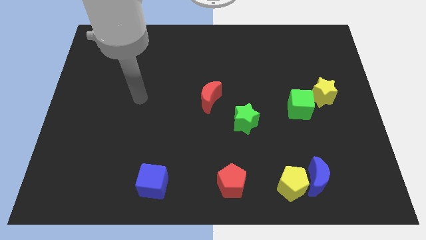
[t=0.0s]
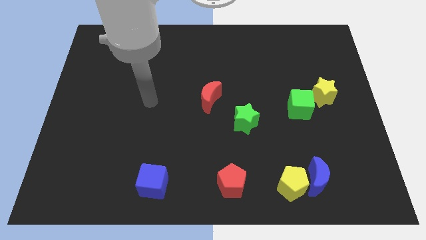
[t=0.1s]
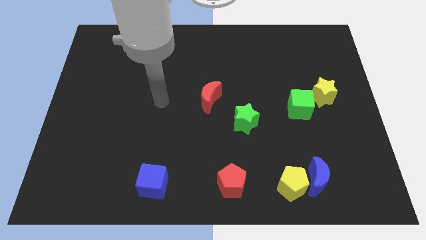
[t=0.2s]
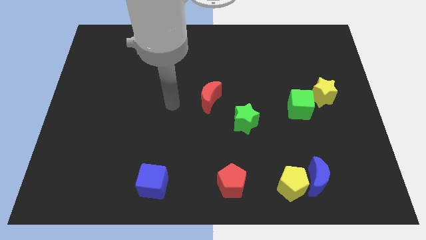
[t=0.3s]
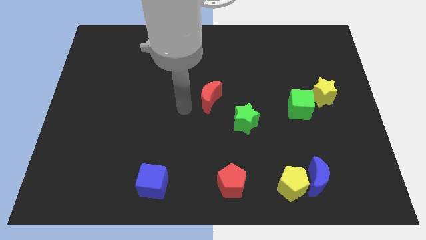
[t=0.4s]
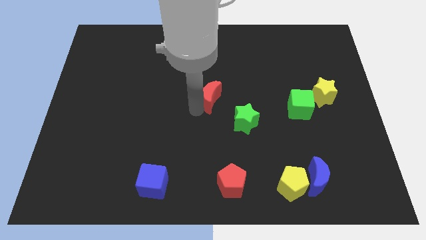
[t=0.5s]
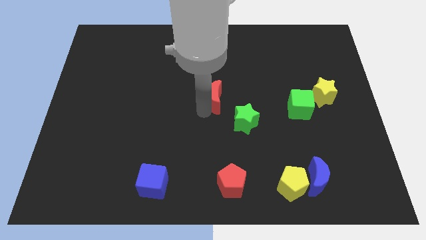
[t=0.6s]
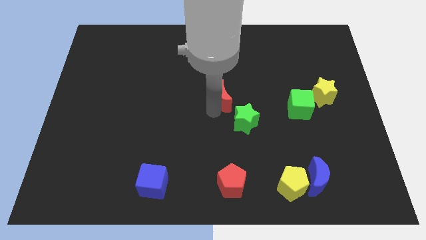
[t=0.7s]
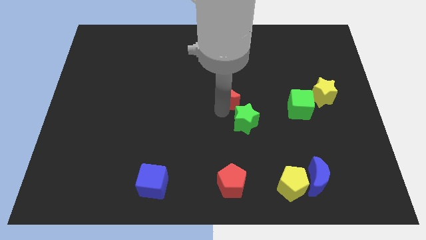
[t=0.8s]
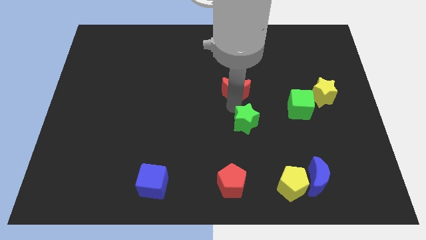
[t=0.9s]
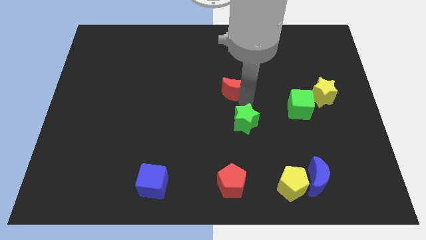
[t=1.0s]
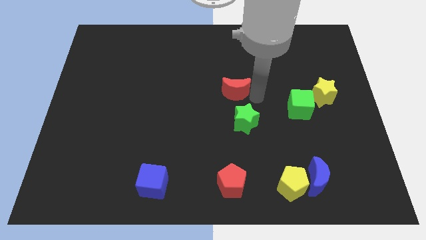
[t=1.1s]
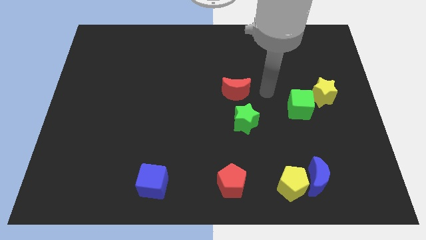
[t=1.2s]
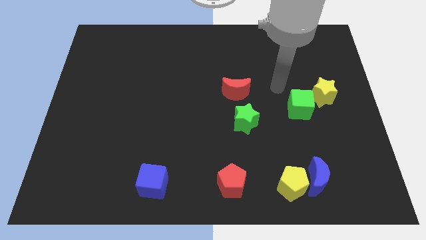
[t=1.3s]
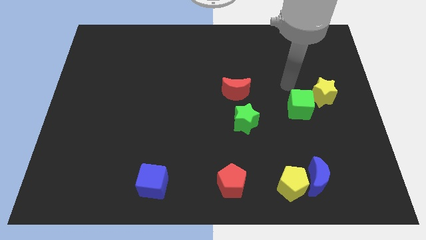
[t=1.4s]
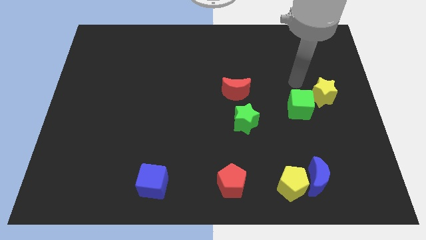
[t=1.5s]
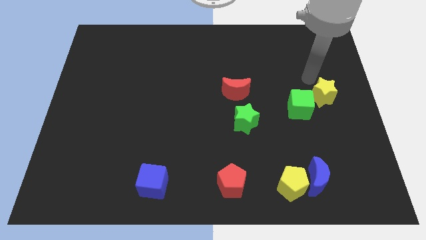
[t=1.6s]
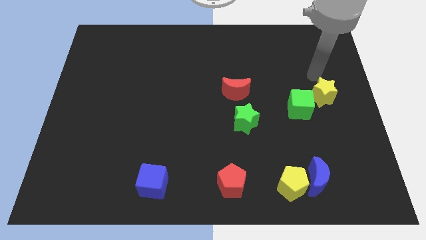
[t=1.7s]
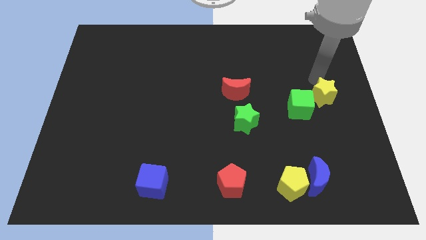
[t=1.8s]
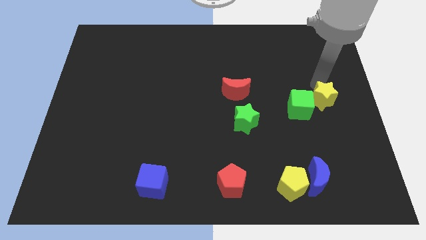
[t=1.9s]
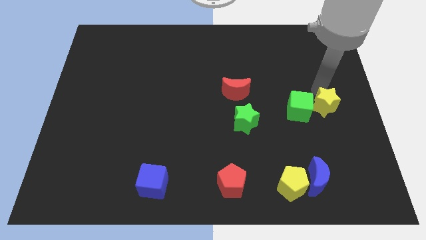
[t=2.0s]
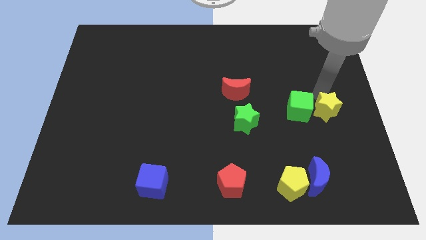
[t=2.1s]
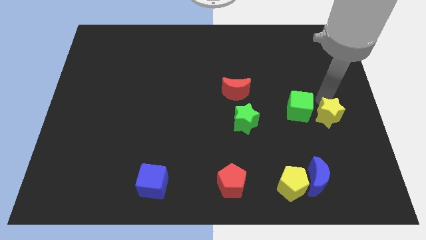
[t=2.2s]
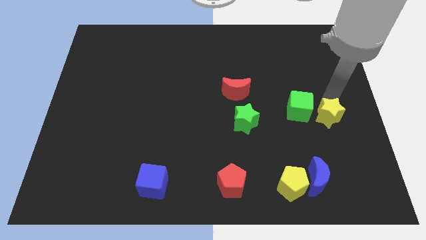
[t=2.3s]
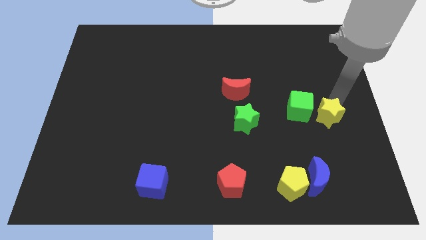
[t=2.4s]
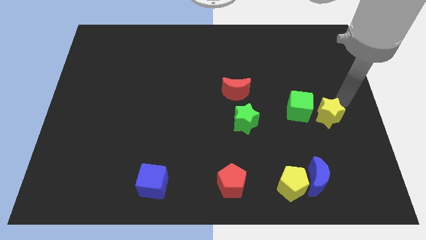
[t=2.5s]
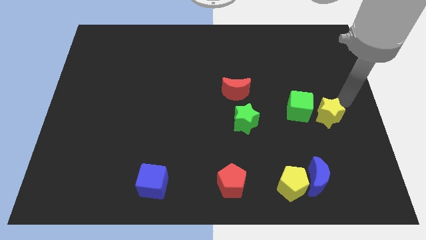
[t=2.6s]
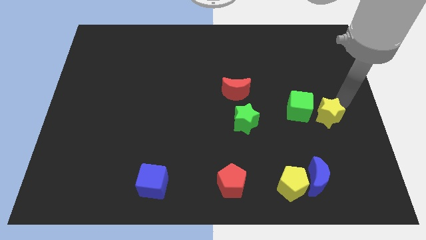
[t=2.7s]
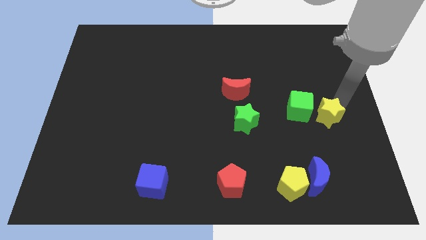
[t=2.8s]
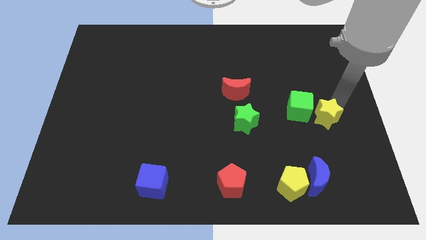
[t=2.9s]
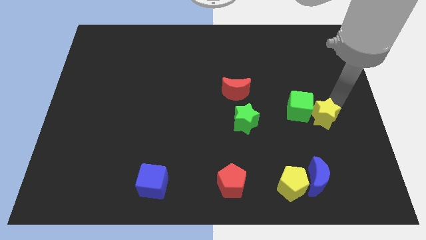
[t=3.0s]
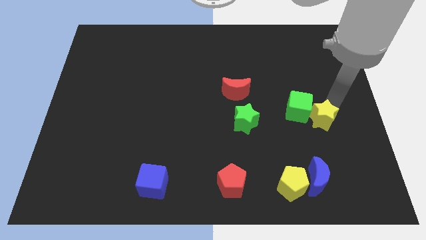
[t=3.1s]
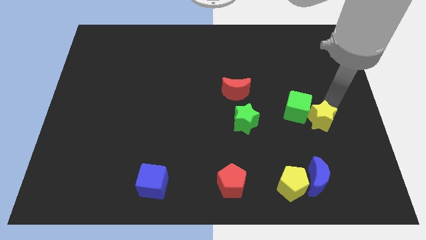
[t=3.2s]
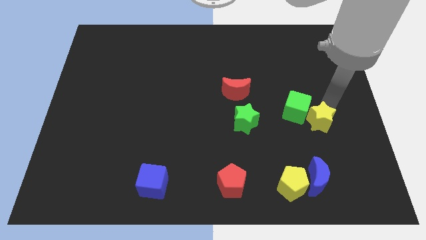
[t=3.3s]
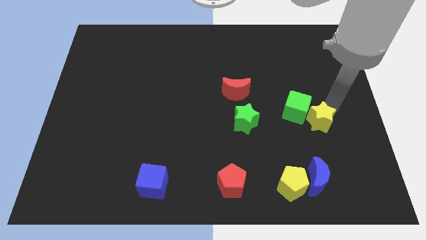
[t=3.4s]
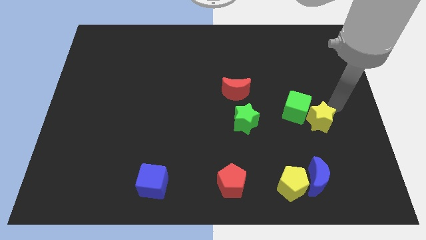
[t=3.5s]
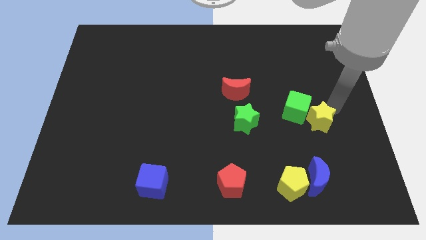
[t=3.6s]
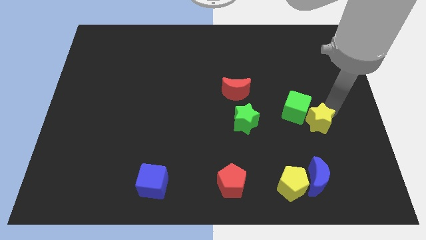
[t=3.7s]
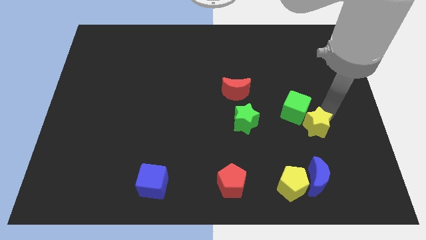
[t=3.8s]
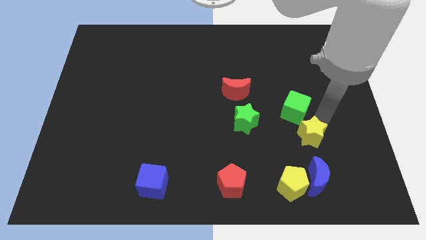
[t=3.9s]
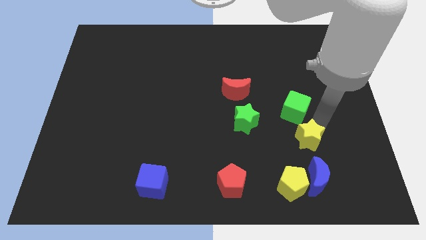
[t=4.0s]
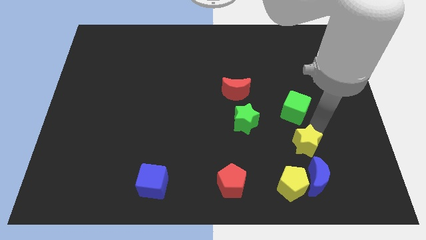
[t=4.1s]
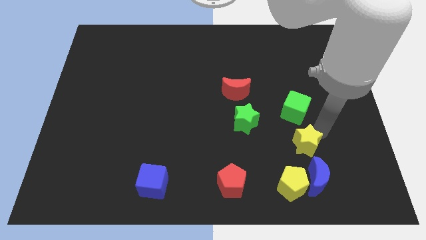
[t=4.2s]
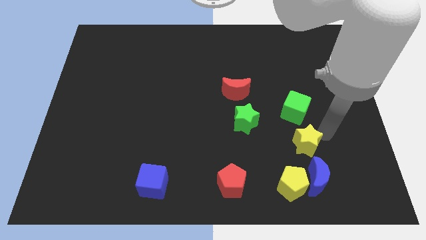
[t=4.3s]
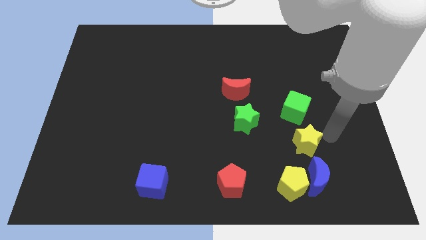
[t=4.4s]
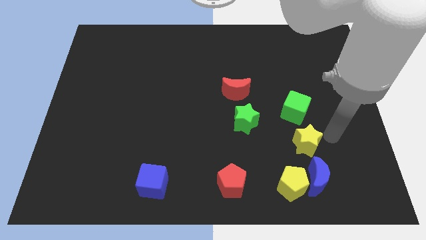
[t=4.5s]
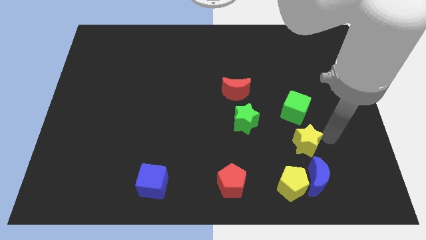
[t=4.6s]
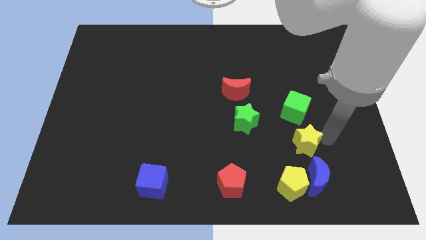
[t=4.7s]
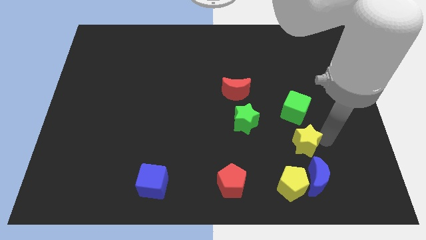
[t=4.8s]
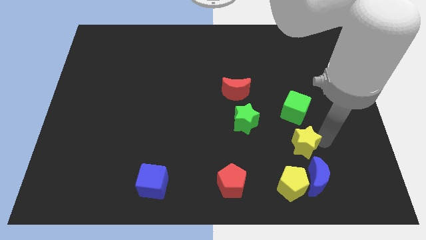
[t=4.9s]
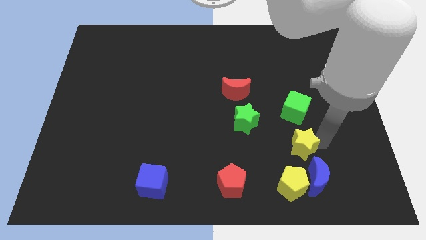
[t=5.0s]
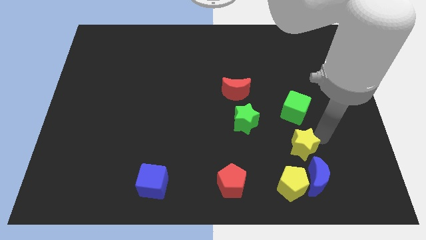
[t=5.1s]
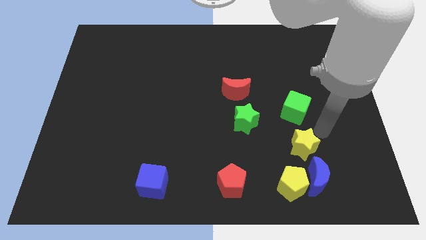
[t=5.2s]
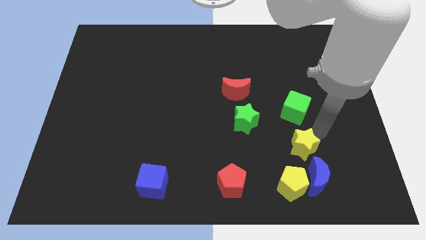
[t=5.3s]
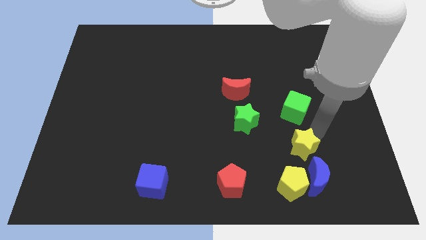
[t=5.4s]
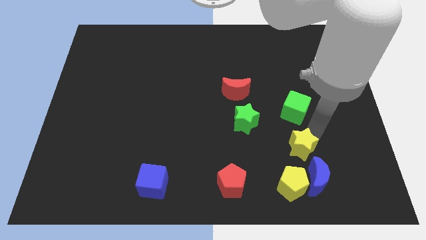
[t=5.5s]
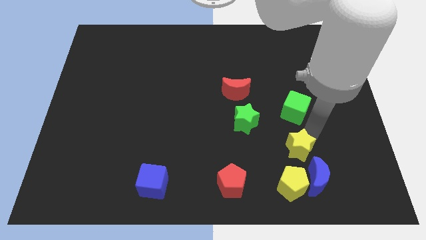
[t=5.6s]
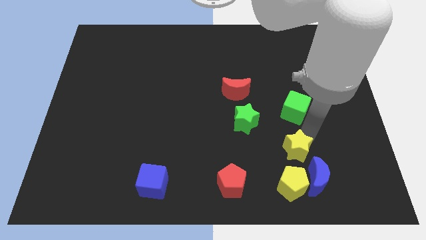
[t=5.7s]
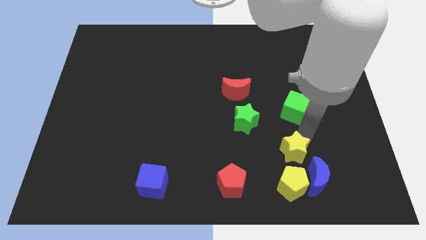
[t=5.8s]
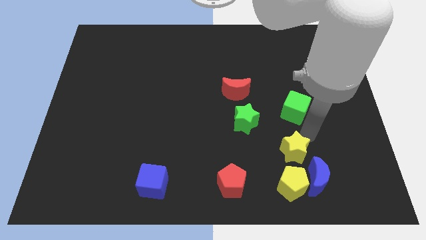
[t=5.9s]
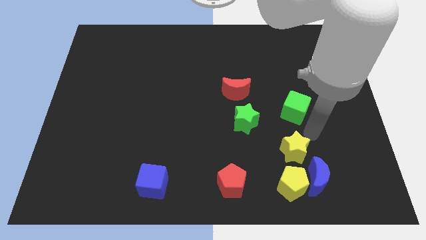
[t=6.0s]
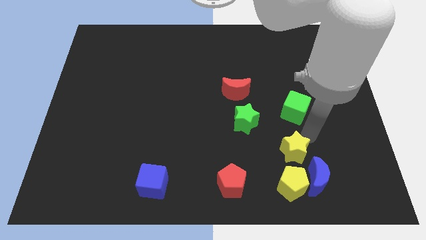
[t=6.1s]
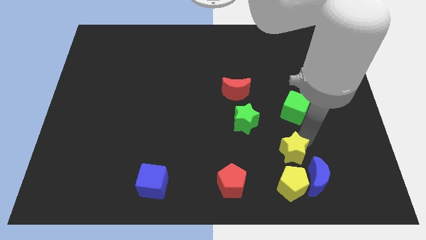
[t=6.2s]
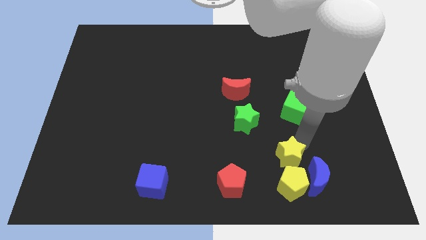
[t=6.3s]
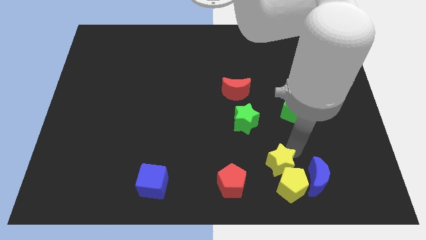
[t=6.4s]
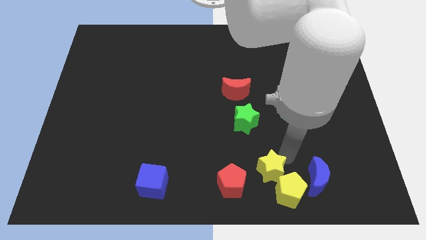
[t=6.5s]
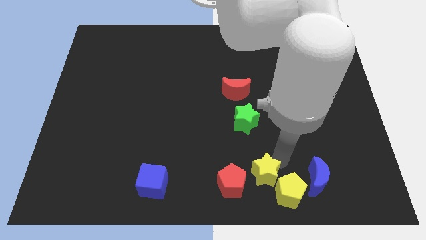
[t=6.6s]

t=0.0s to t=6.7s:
slide the yellow star to the bottom

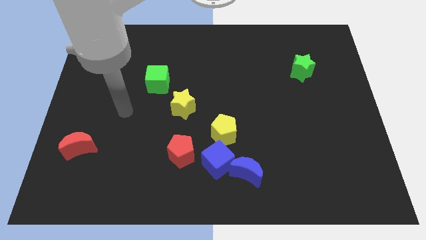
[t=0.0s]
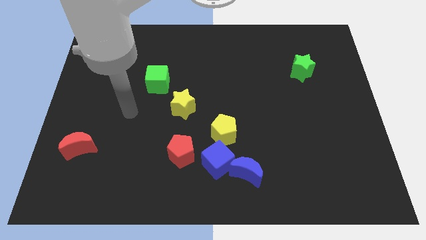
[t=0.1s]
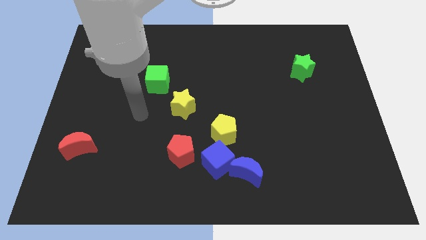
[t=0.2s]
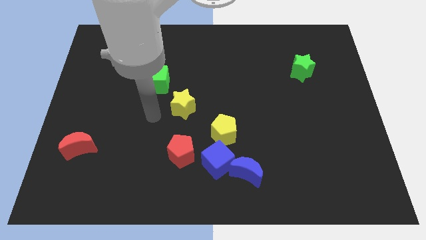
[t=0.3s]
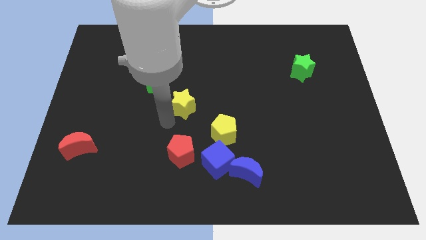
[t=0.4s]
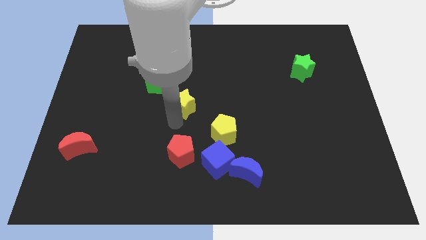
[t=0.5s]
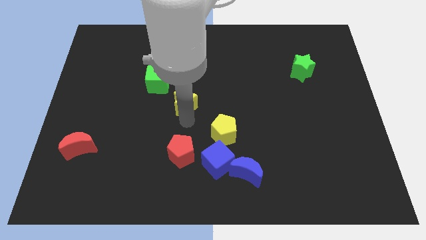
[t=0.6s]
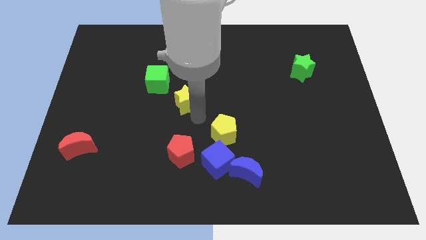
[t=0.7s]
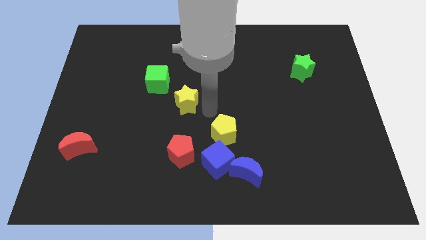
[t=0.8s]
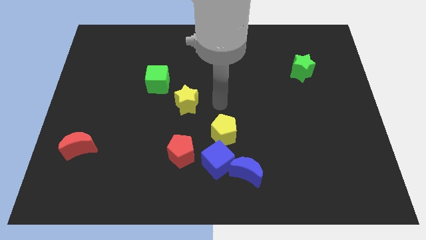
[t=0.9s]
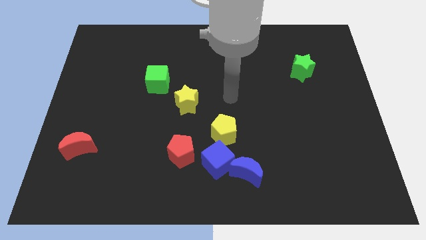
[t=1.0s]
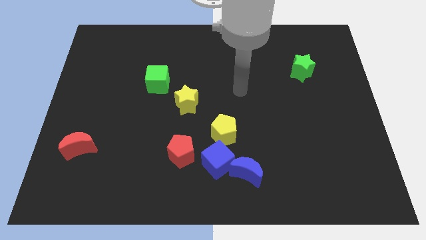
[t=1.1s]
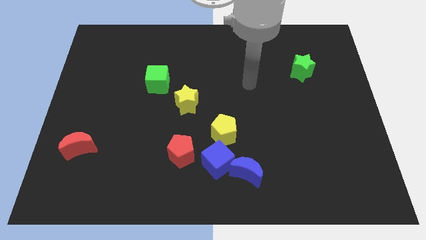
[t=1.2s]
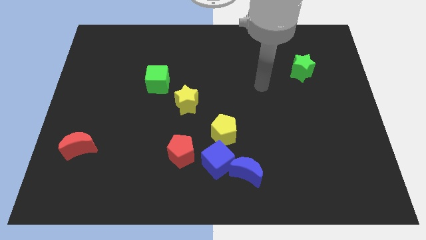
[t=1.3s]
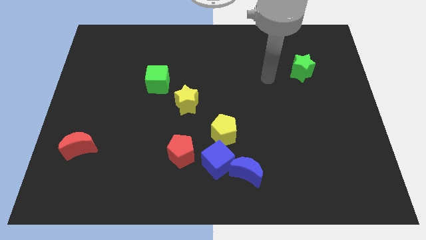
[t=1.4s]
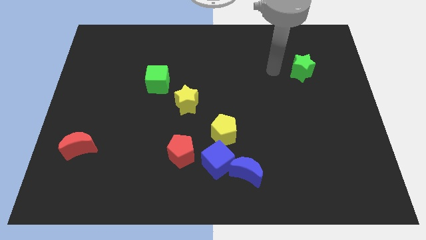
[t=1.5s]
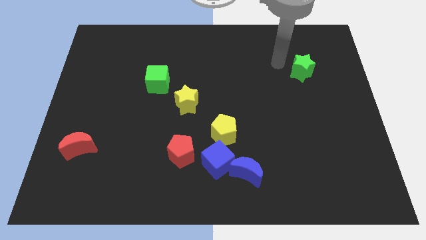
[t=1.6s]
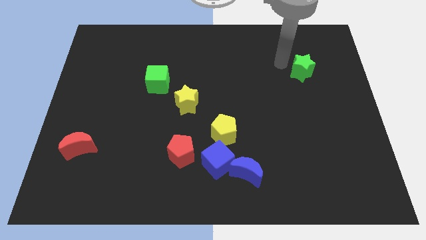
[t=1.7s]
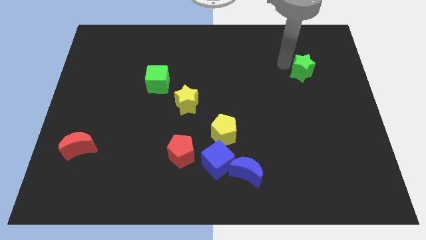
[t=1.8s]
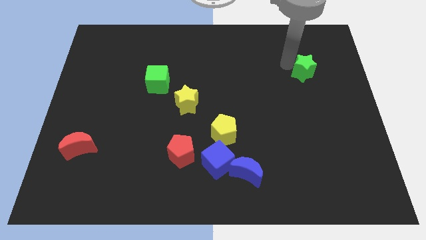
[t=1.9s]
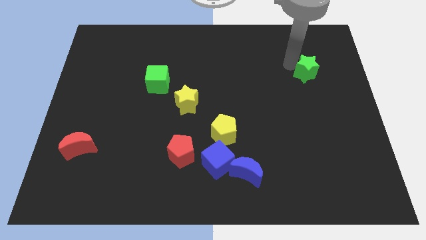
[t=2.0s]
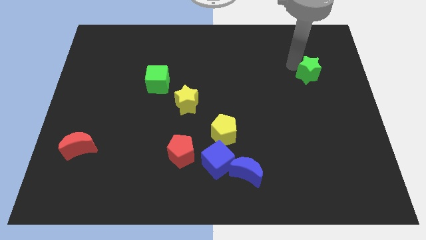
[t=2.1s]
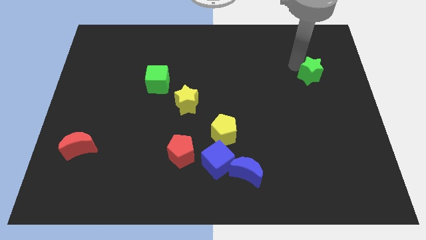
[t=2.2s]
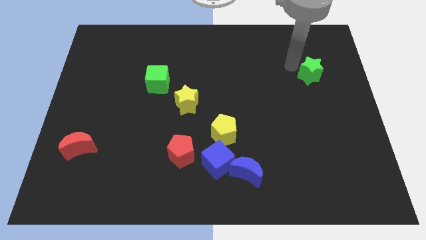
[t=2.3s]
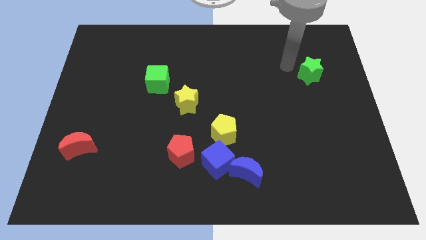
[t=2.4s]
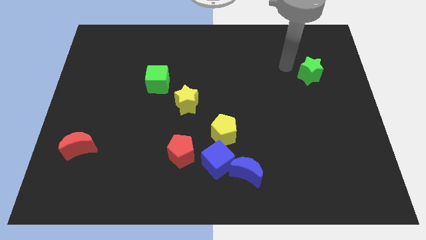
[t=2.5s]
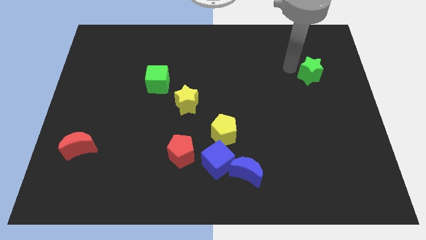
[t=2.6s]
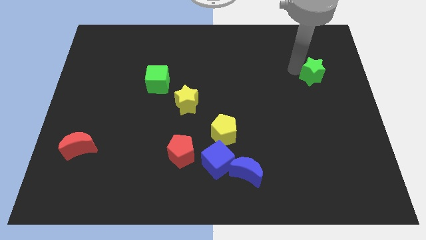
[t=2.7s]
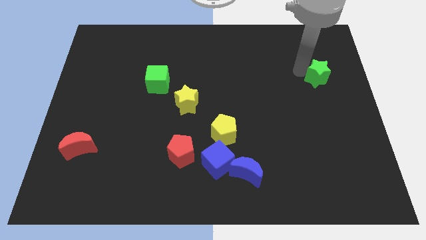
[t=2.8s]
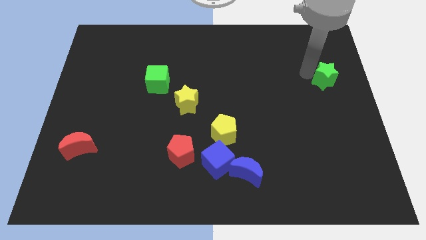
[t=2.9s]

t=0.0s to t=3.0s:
slide the green star to the center right
